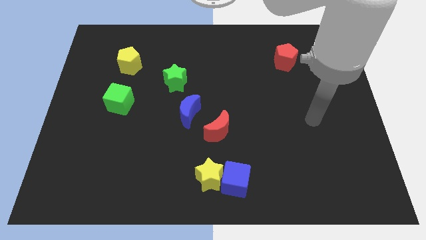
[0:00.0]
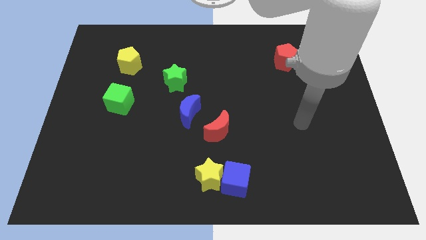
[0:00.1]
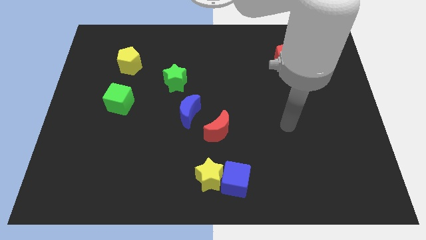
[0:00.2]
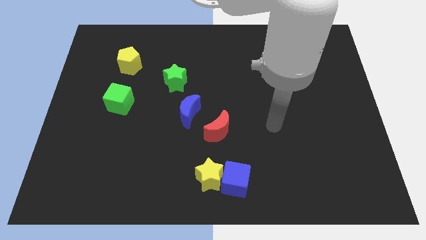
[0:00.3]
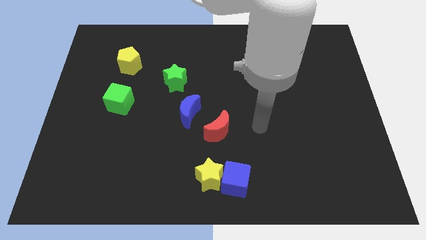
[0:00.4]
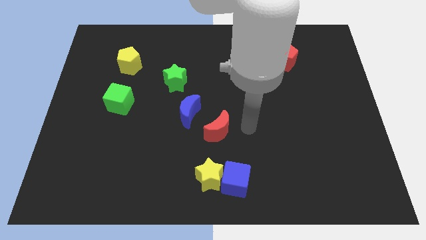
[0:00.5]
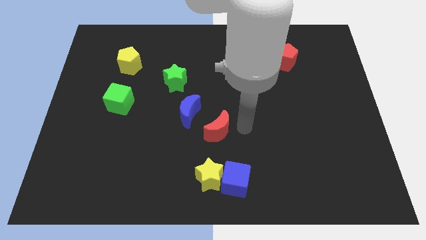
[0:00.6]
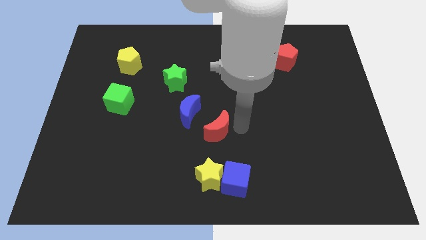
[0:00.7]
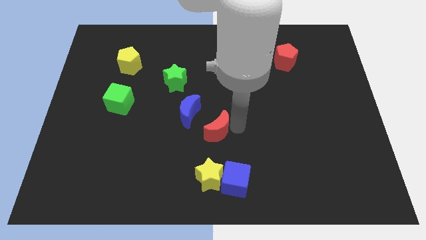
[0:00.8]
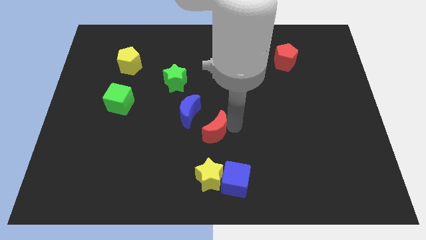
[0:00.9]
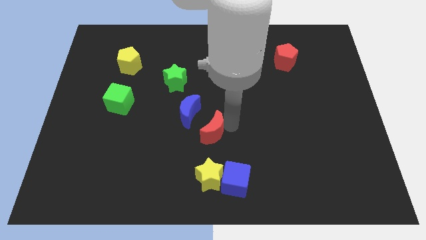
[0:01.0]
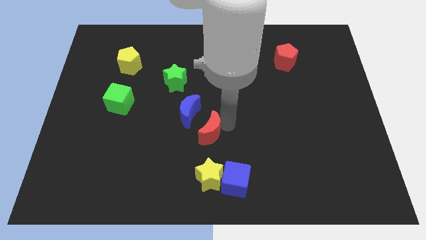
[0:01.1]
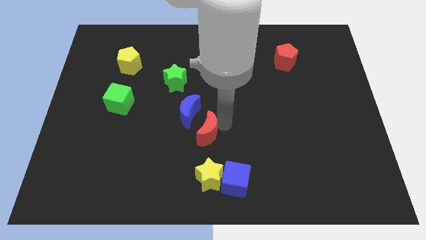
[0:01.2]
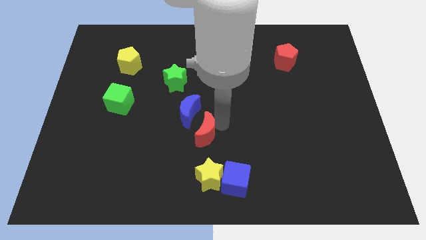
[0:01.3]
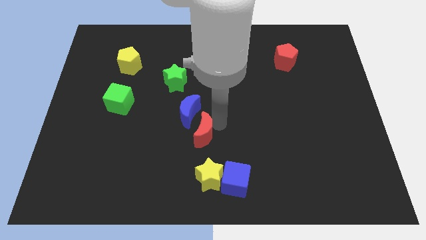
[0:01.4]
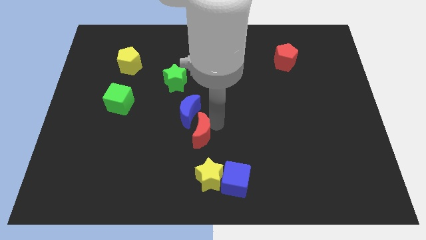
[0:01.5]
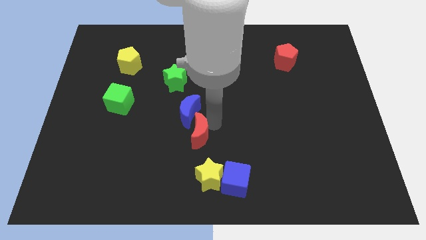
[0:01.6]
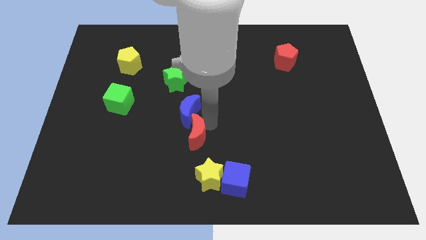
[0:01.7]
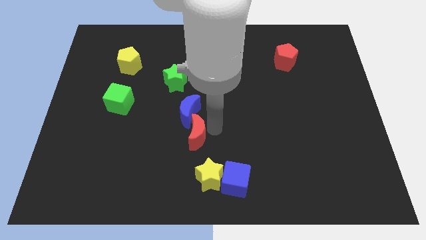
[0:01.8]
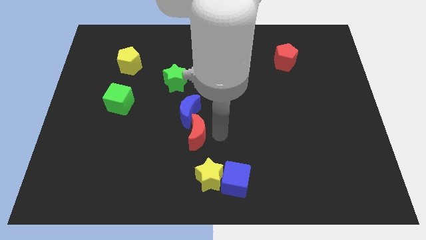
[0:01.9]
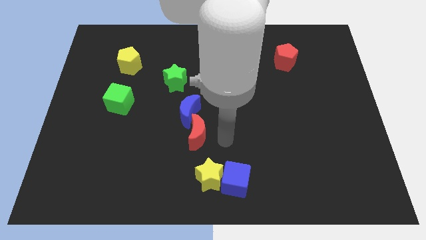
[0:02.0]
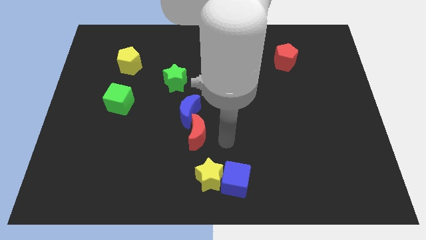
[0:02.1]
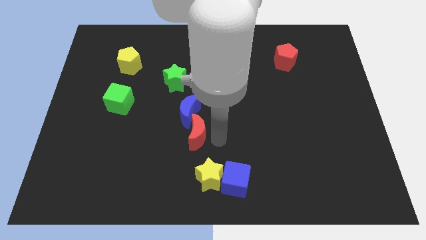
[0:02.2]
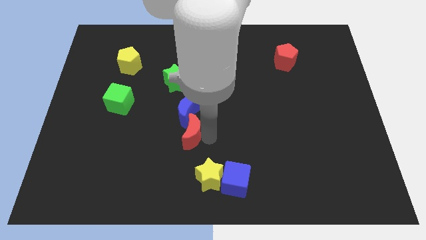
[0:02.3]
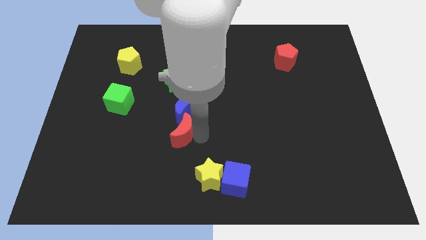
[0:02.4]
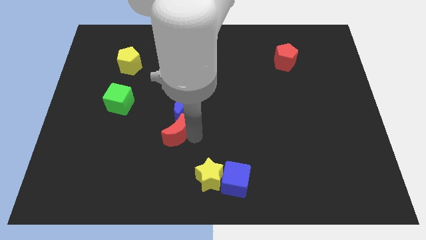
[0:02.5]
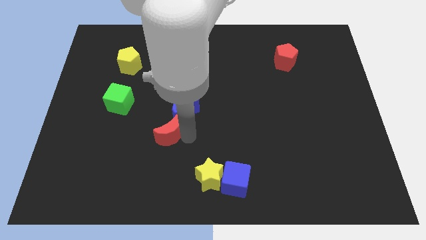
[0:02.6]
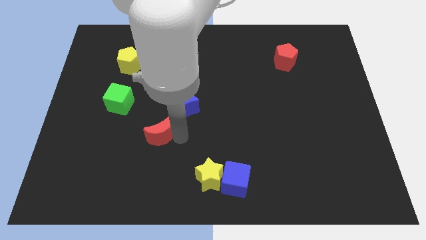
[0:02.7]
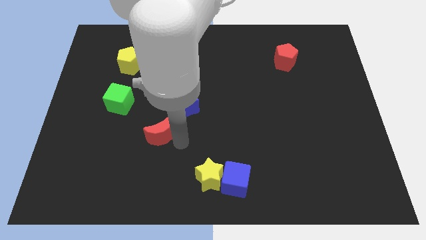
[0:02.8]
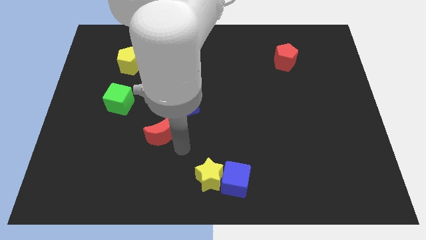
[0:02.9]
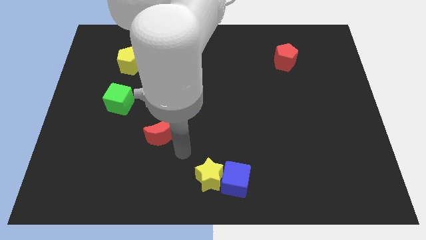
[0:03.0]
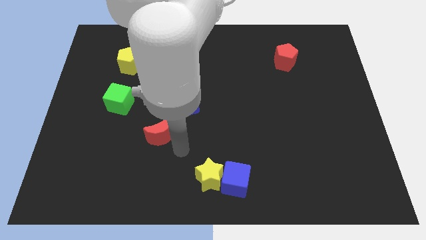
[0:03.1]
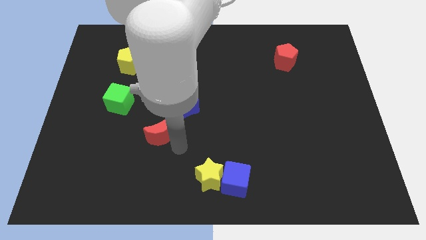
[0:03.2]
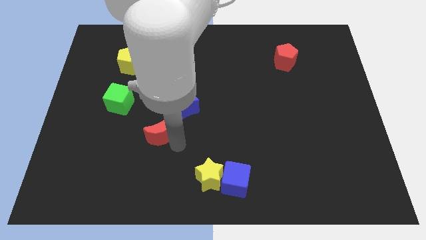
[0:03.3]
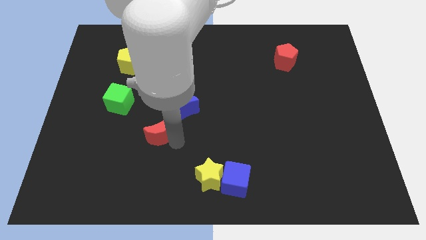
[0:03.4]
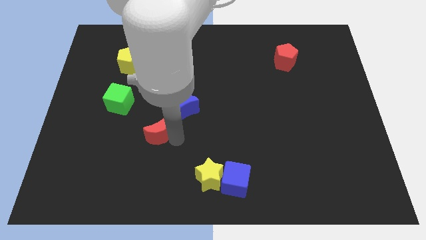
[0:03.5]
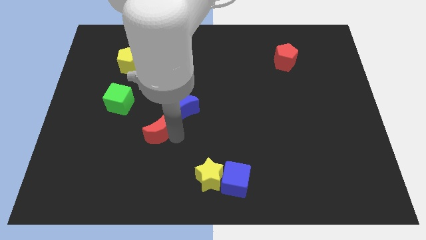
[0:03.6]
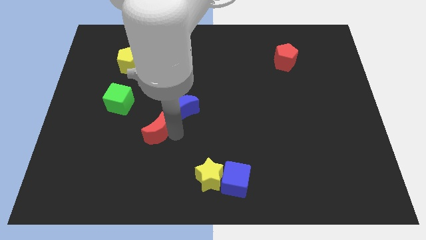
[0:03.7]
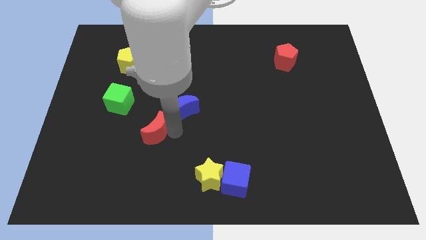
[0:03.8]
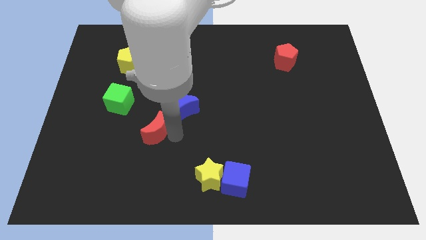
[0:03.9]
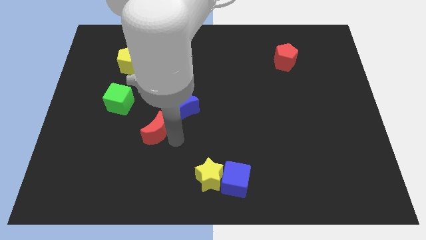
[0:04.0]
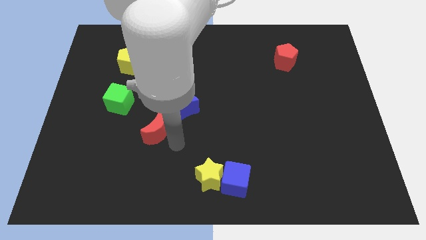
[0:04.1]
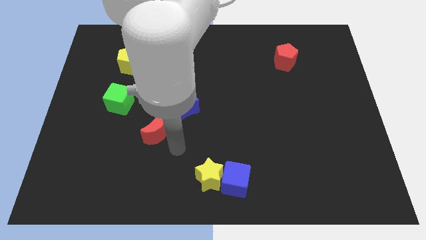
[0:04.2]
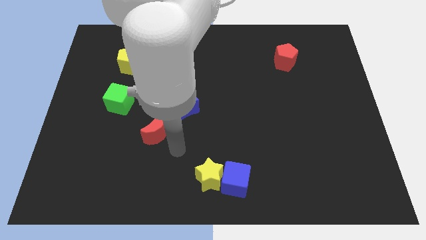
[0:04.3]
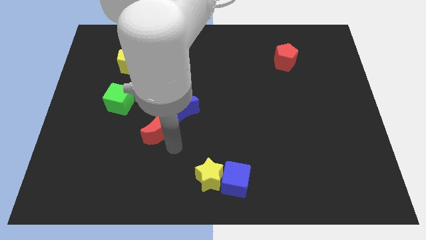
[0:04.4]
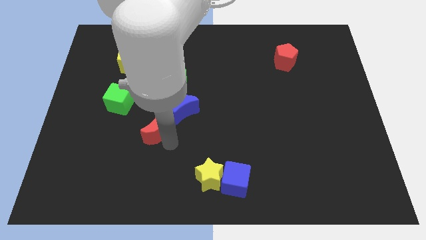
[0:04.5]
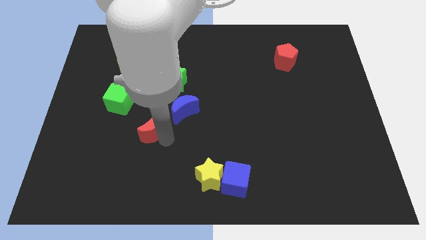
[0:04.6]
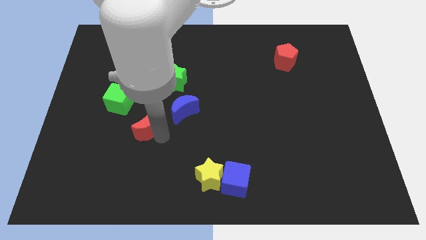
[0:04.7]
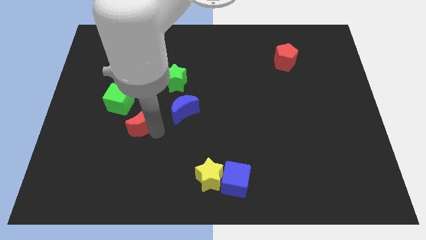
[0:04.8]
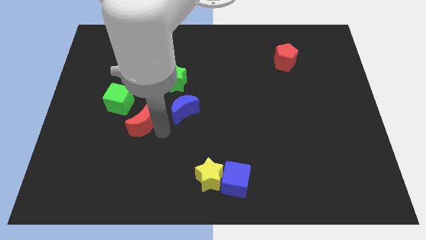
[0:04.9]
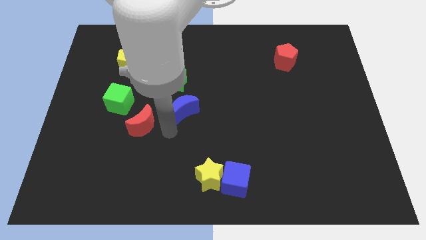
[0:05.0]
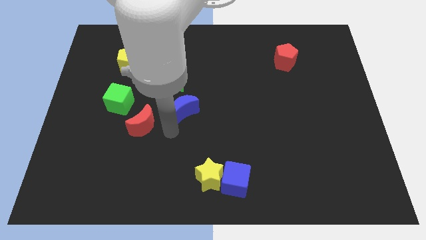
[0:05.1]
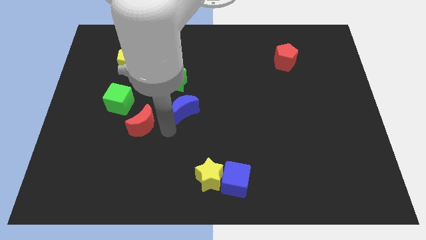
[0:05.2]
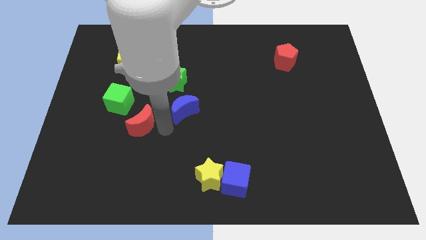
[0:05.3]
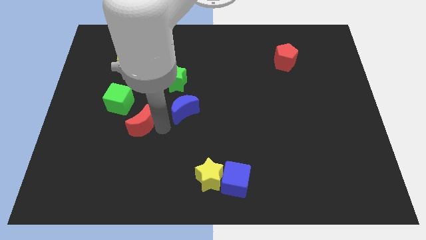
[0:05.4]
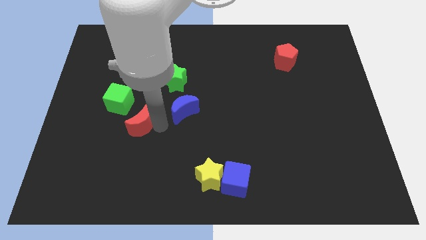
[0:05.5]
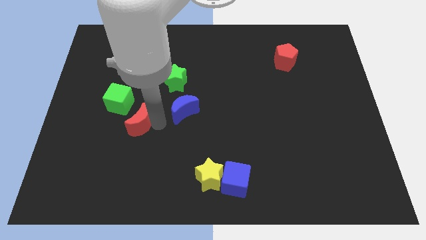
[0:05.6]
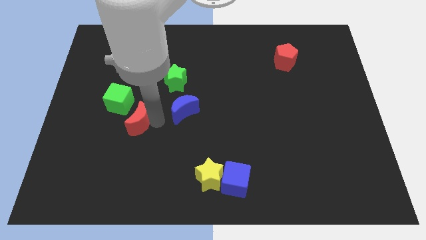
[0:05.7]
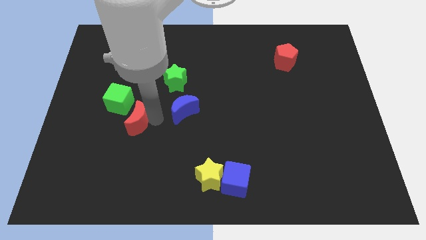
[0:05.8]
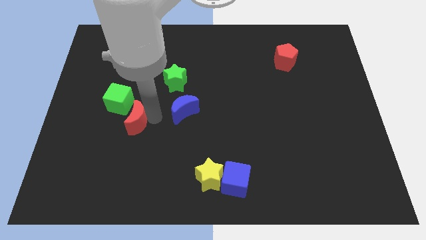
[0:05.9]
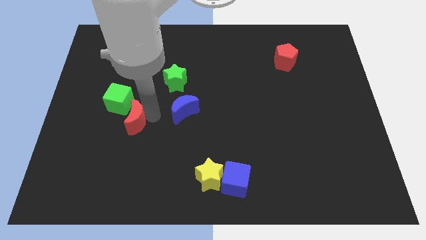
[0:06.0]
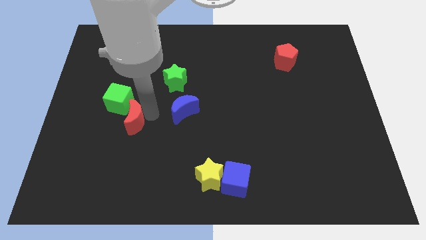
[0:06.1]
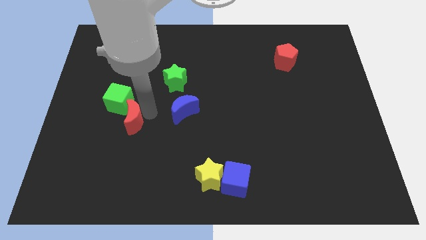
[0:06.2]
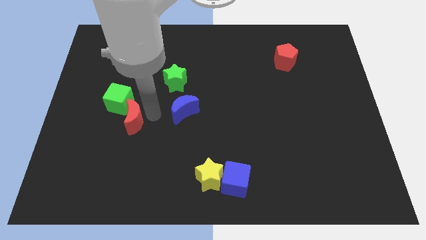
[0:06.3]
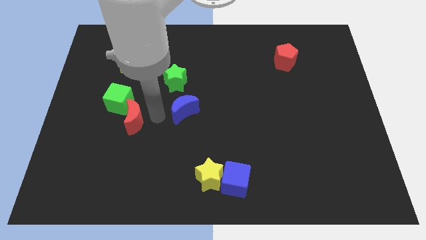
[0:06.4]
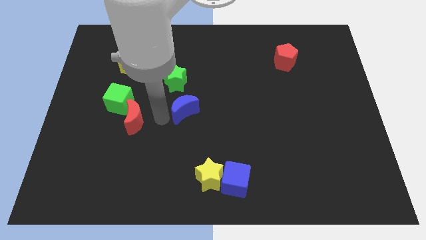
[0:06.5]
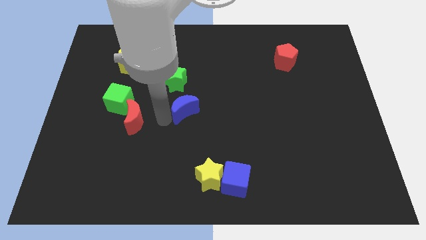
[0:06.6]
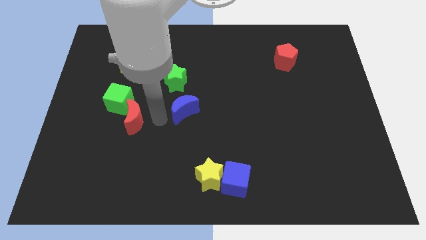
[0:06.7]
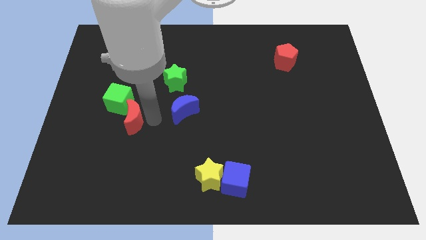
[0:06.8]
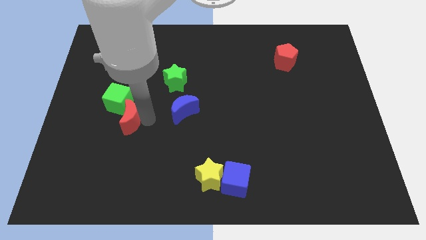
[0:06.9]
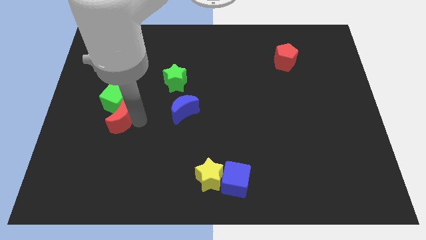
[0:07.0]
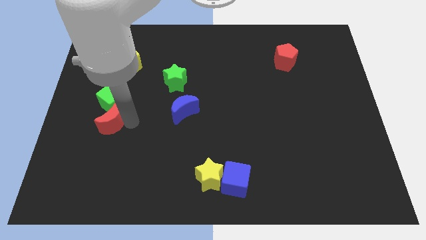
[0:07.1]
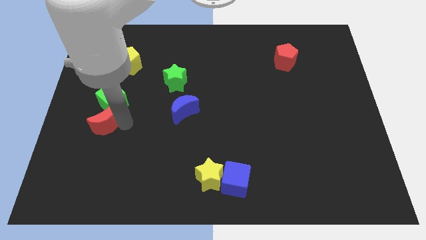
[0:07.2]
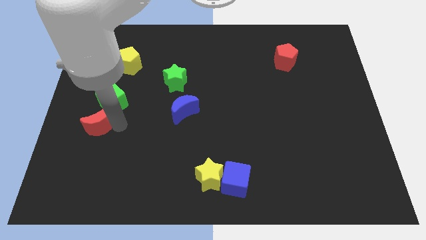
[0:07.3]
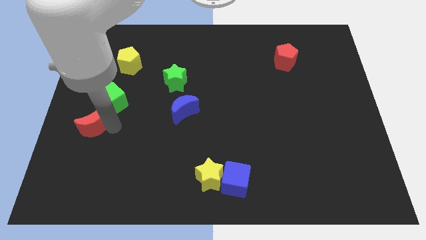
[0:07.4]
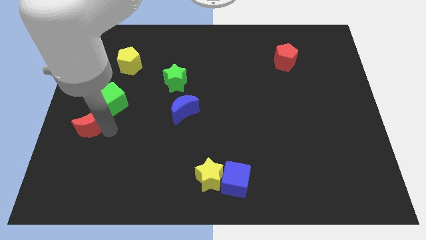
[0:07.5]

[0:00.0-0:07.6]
push the red moon to the center left
